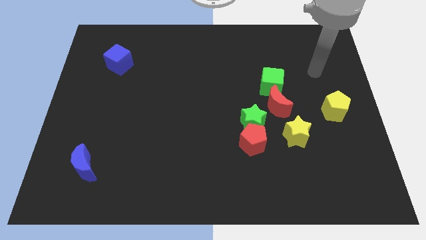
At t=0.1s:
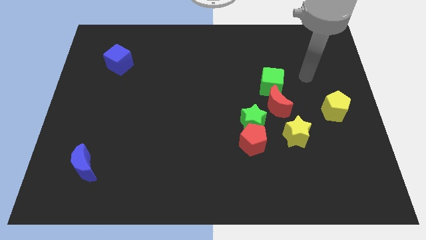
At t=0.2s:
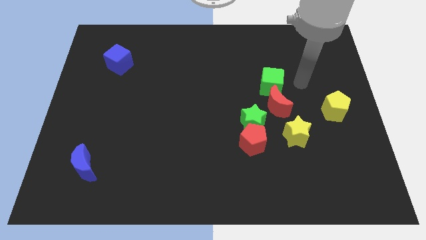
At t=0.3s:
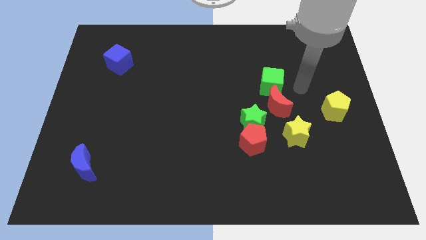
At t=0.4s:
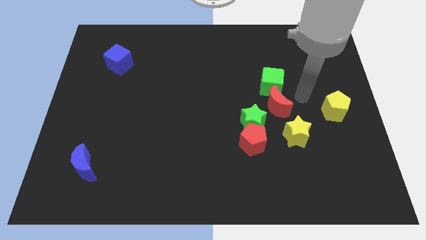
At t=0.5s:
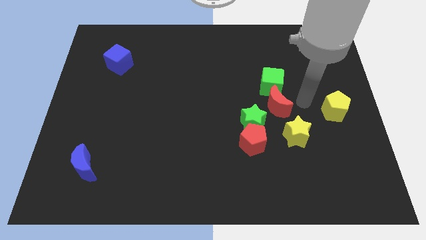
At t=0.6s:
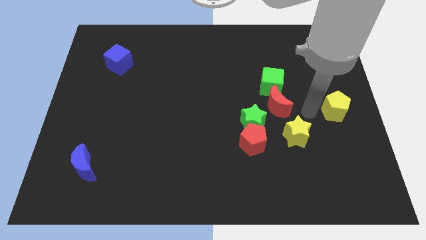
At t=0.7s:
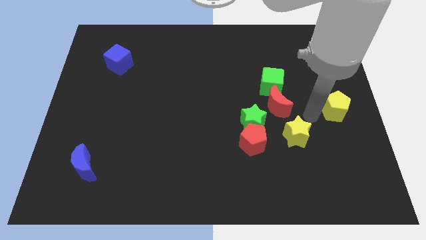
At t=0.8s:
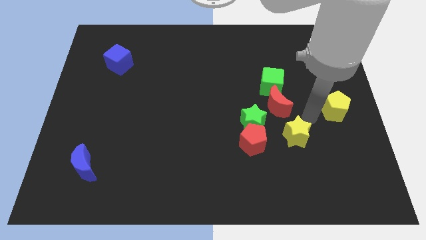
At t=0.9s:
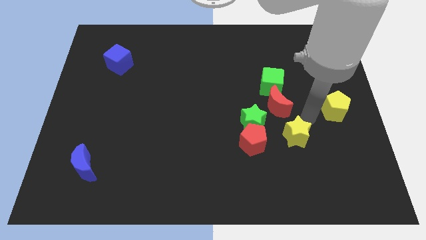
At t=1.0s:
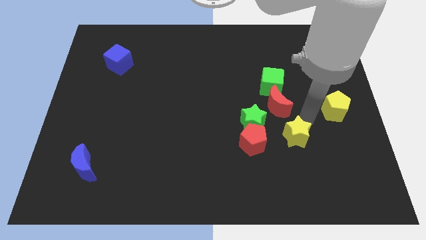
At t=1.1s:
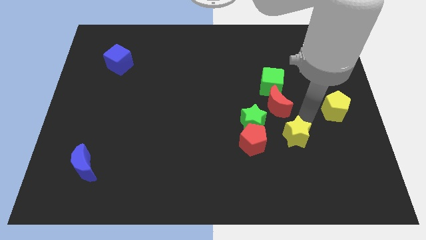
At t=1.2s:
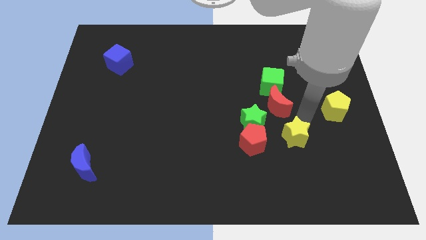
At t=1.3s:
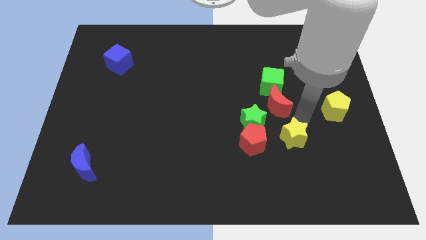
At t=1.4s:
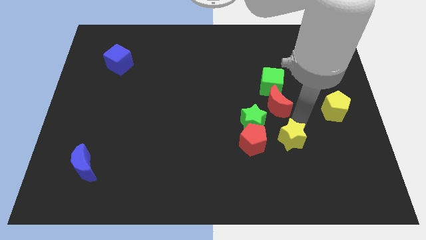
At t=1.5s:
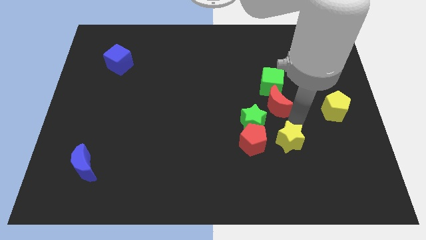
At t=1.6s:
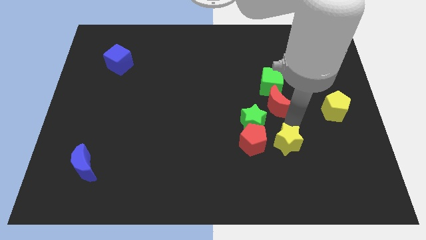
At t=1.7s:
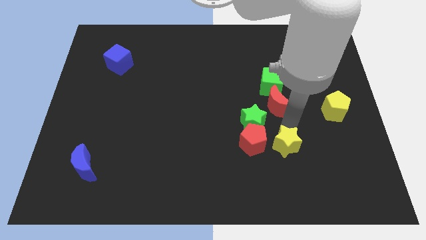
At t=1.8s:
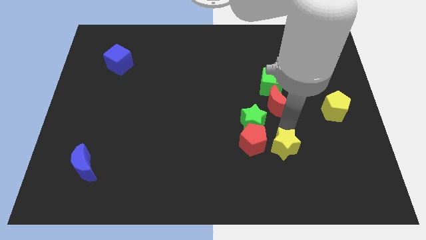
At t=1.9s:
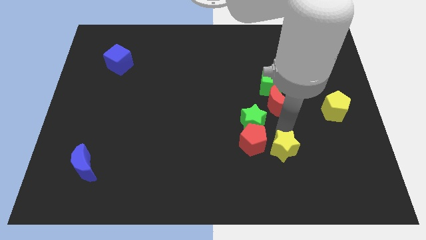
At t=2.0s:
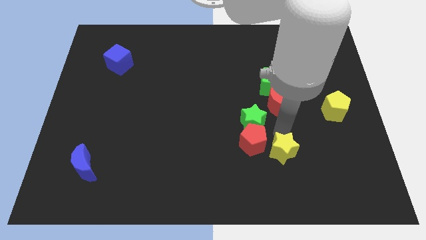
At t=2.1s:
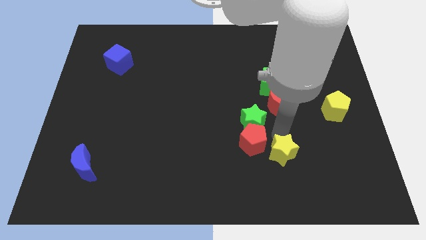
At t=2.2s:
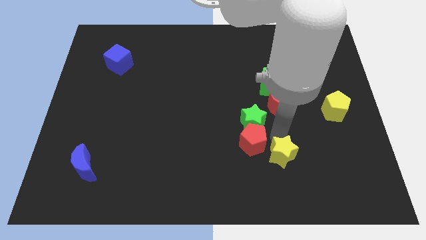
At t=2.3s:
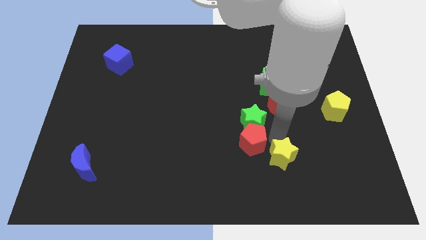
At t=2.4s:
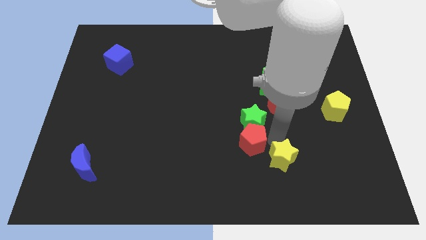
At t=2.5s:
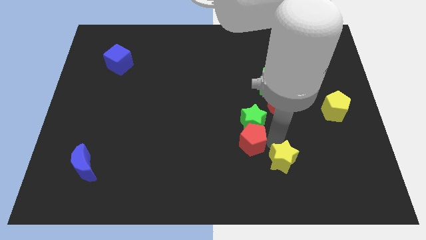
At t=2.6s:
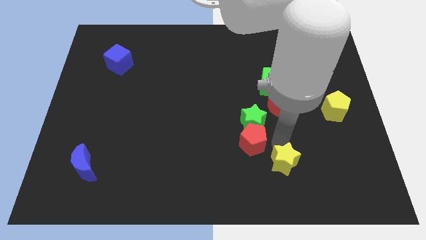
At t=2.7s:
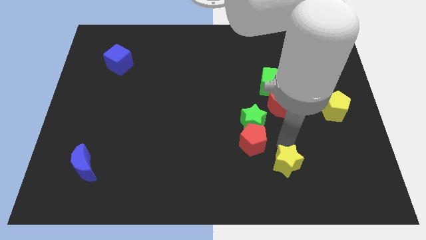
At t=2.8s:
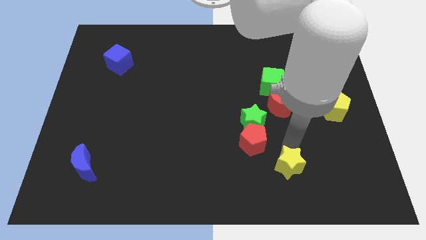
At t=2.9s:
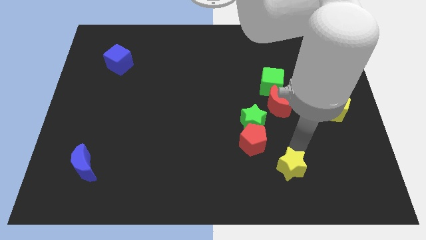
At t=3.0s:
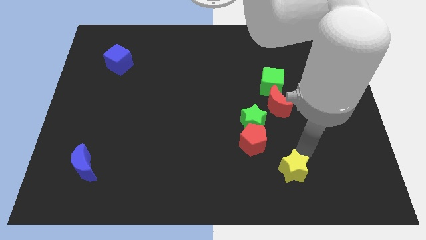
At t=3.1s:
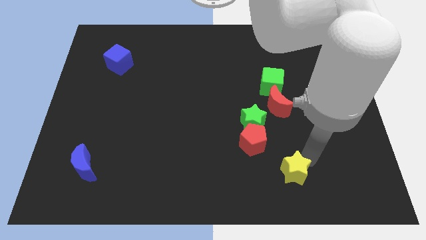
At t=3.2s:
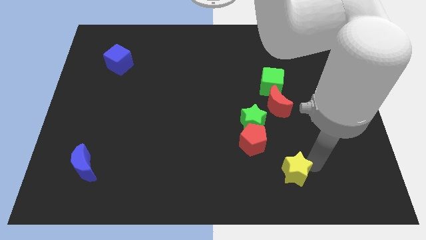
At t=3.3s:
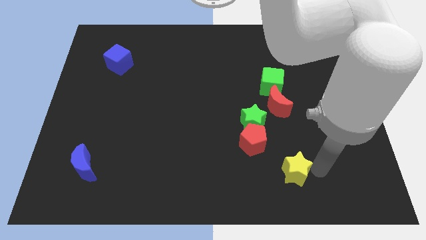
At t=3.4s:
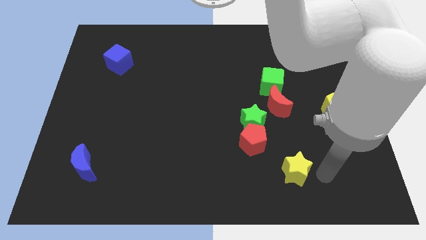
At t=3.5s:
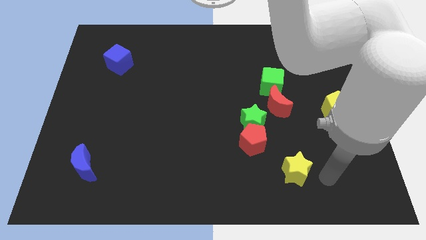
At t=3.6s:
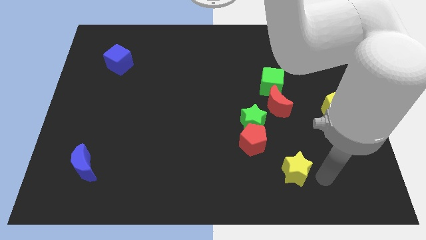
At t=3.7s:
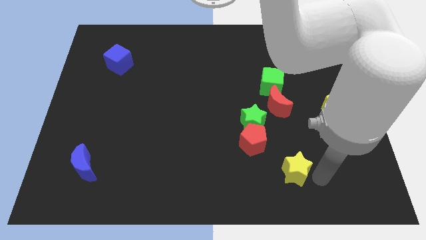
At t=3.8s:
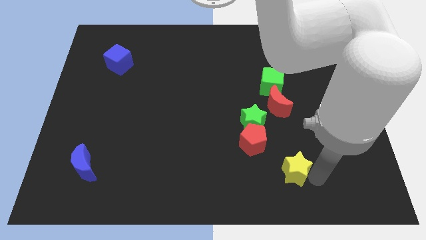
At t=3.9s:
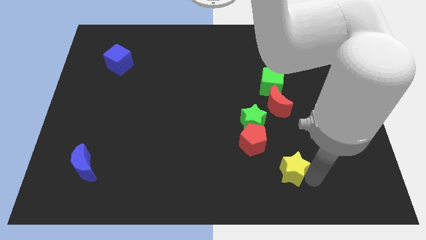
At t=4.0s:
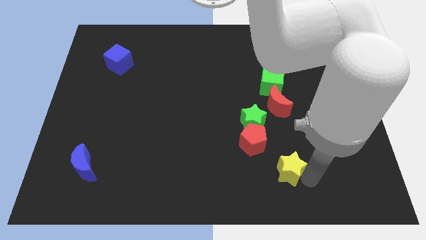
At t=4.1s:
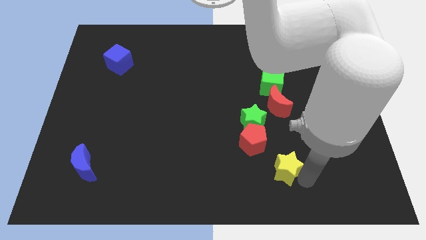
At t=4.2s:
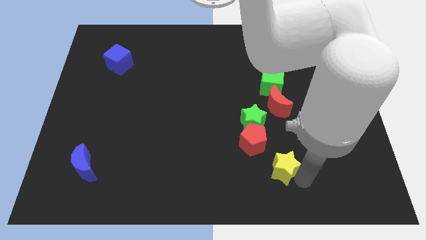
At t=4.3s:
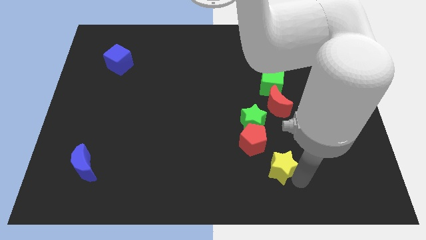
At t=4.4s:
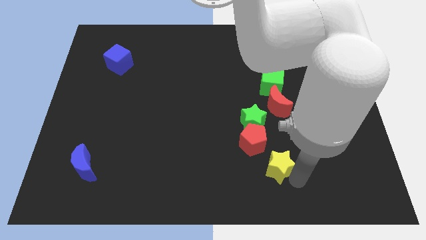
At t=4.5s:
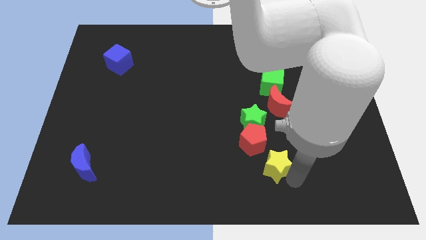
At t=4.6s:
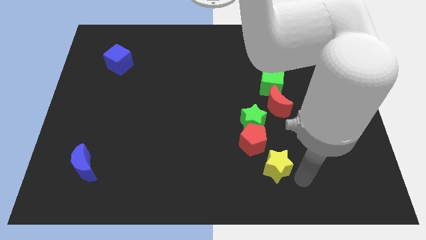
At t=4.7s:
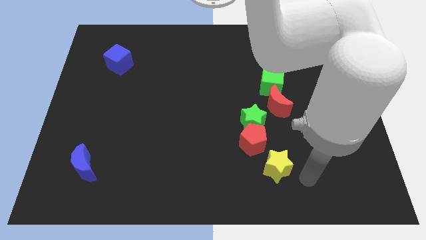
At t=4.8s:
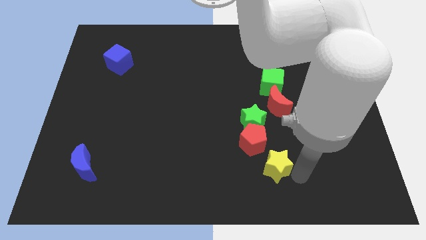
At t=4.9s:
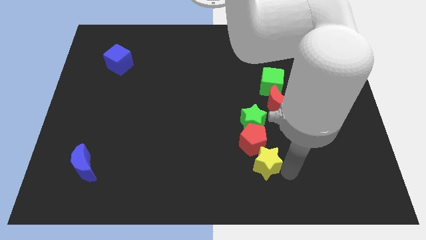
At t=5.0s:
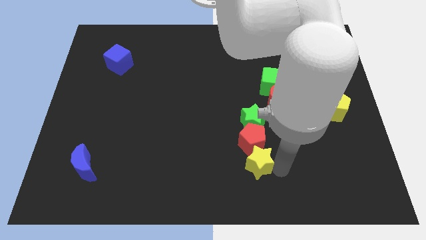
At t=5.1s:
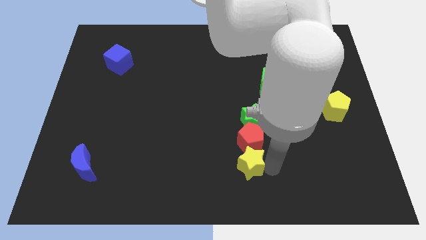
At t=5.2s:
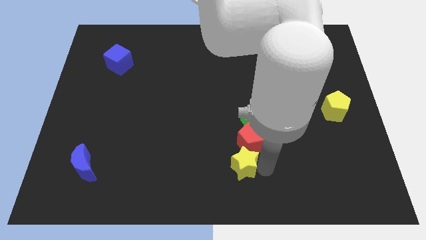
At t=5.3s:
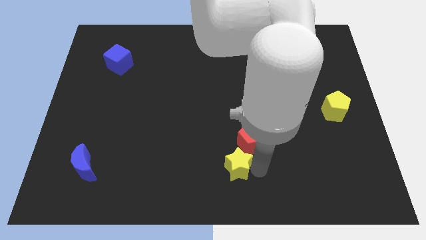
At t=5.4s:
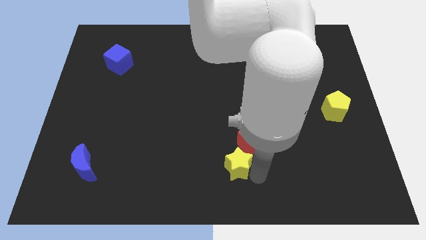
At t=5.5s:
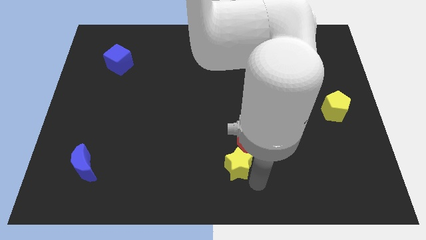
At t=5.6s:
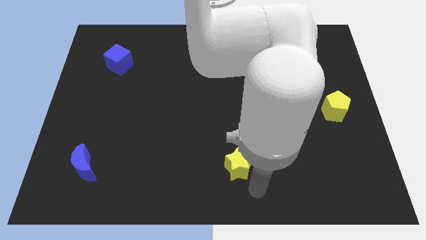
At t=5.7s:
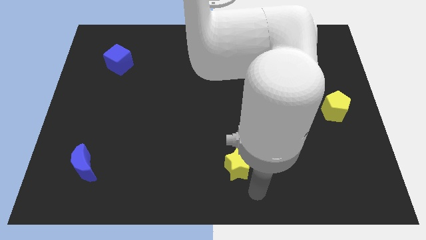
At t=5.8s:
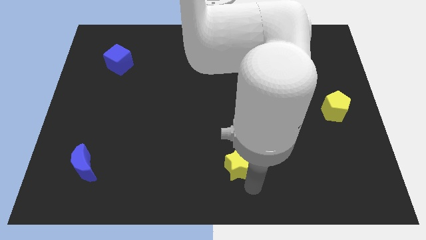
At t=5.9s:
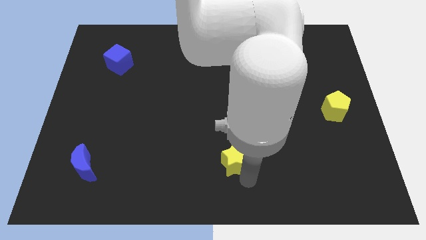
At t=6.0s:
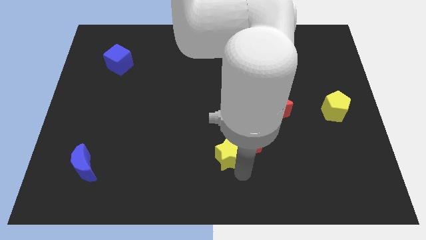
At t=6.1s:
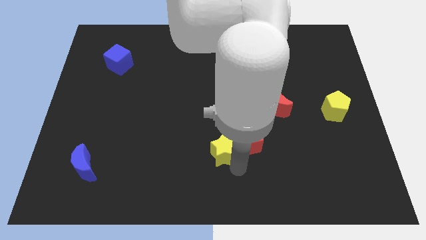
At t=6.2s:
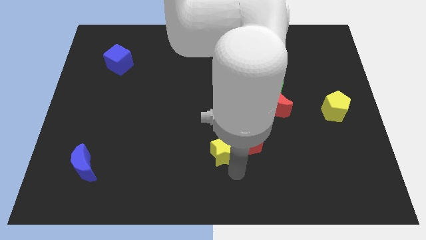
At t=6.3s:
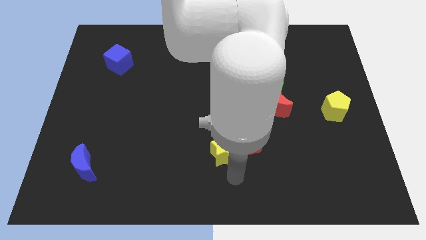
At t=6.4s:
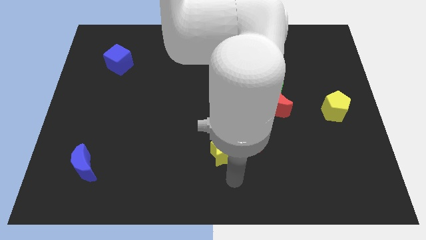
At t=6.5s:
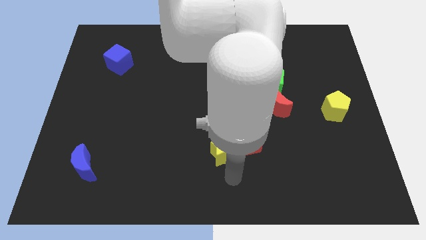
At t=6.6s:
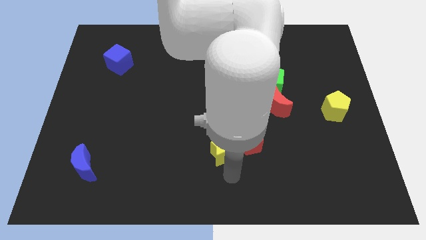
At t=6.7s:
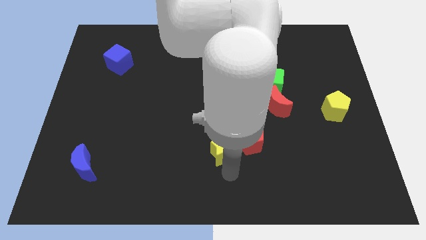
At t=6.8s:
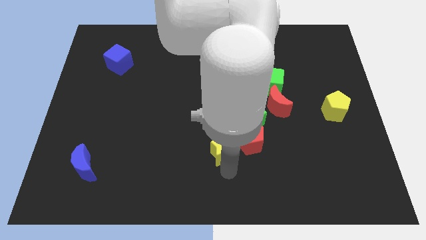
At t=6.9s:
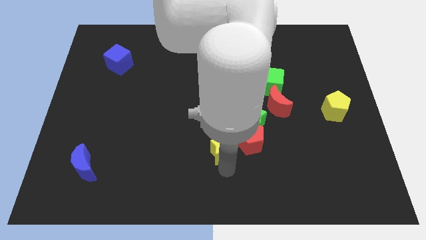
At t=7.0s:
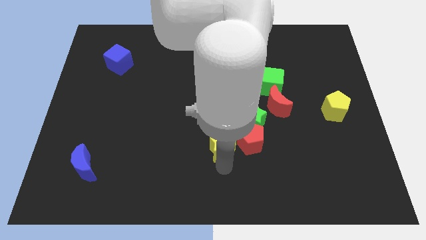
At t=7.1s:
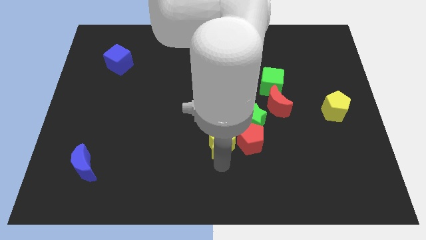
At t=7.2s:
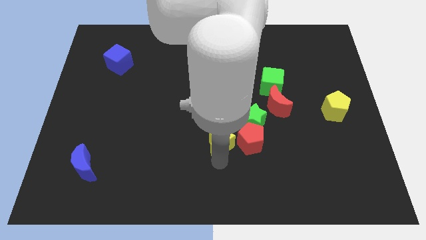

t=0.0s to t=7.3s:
move the yellow star to the middle of the board
